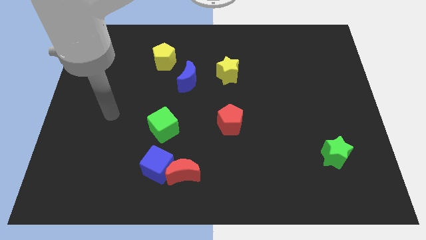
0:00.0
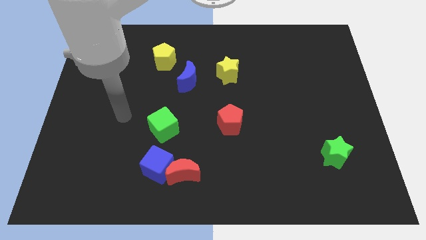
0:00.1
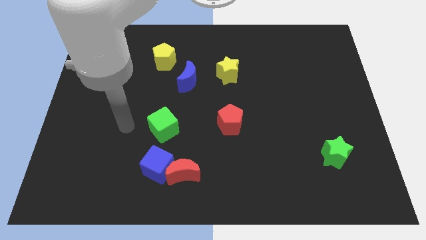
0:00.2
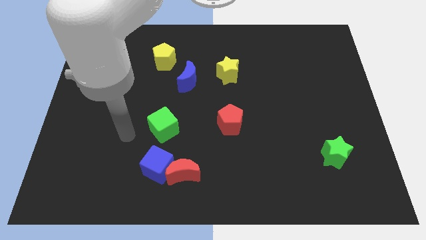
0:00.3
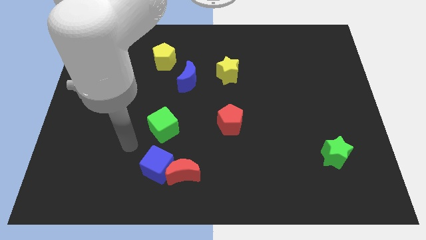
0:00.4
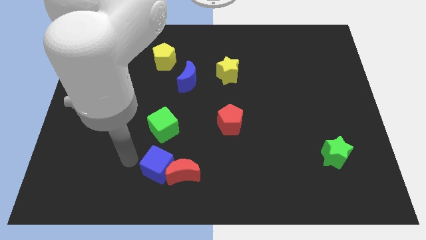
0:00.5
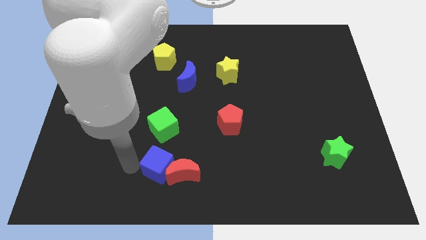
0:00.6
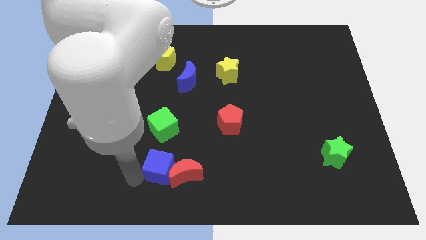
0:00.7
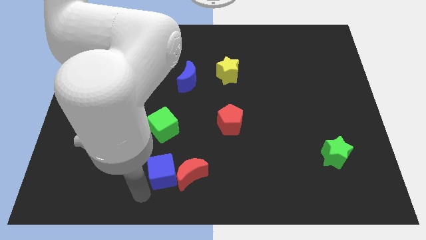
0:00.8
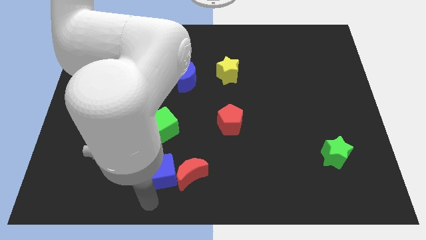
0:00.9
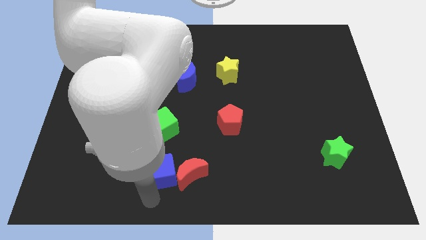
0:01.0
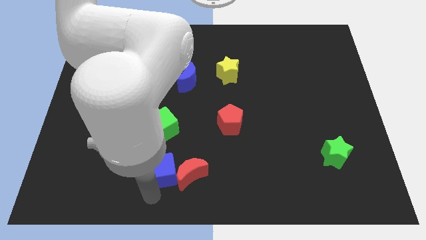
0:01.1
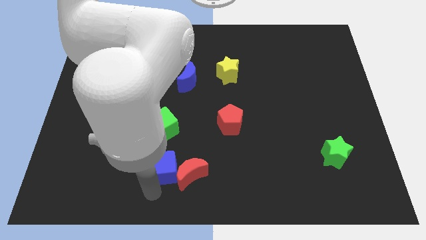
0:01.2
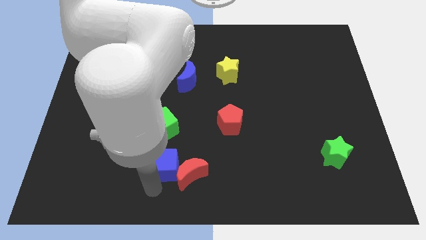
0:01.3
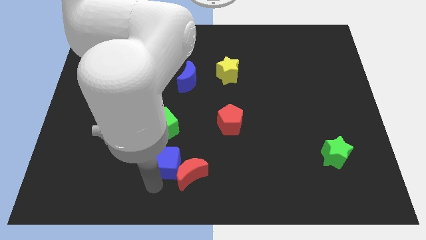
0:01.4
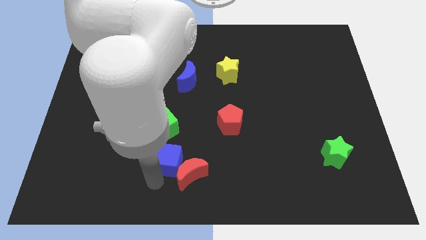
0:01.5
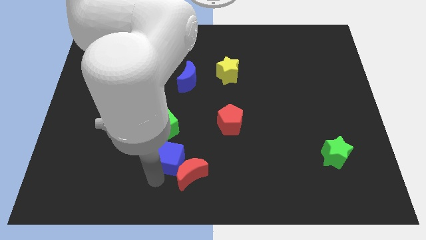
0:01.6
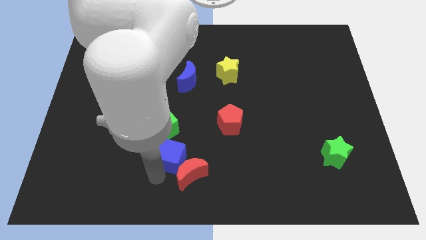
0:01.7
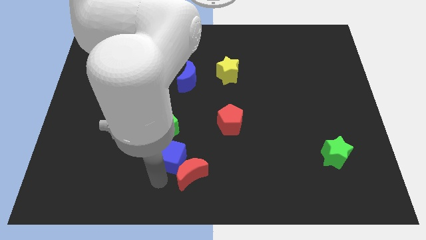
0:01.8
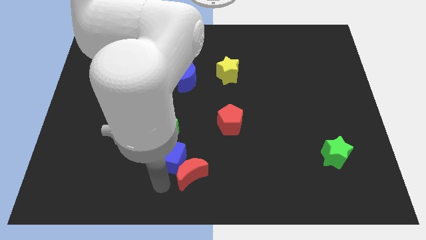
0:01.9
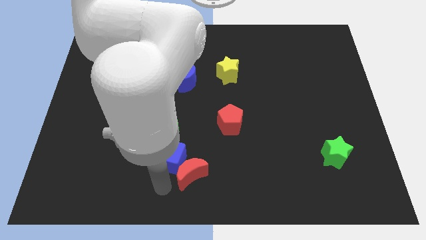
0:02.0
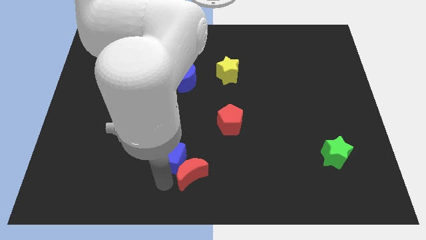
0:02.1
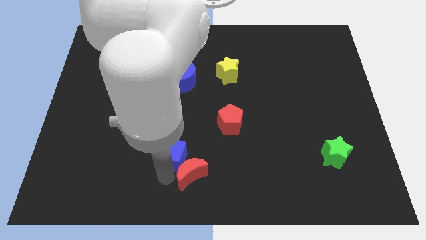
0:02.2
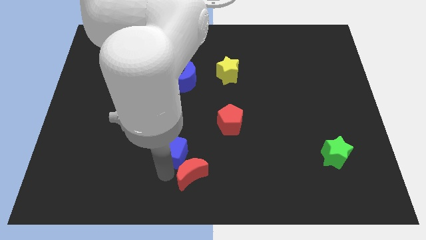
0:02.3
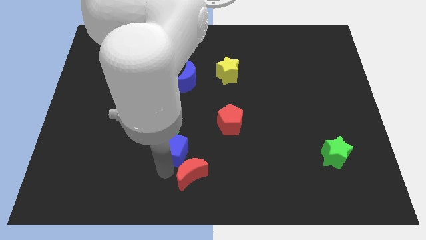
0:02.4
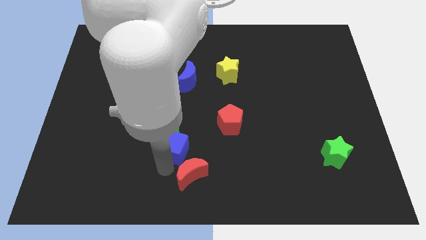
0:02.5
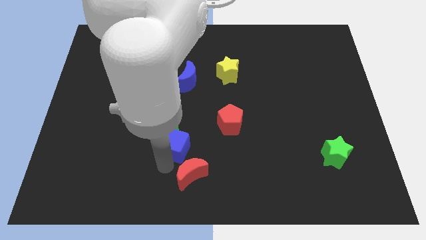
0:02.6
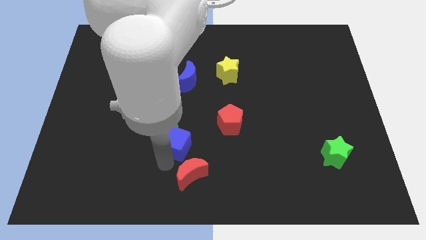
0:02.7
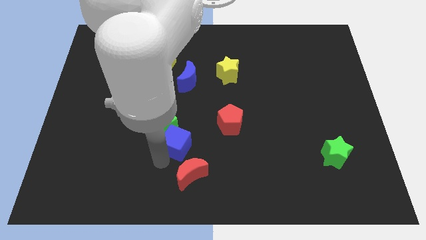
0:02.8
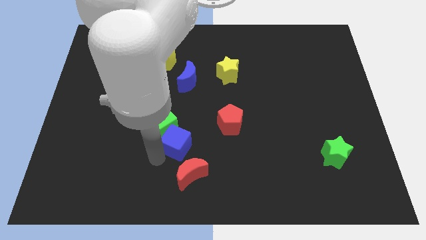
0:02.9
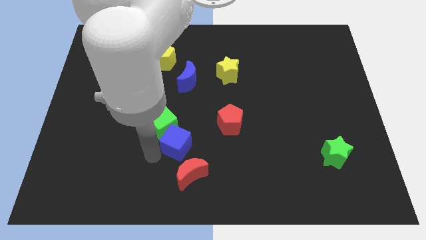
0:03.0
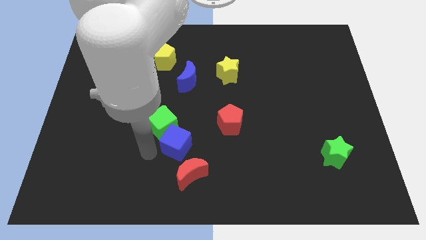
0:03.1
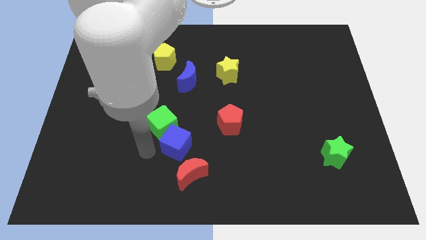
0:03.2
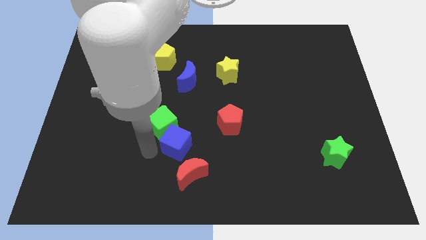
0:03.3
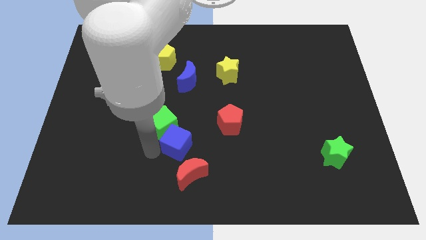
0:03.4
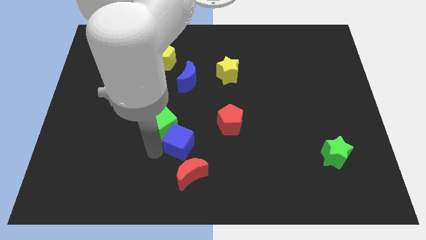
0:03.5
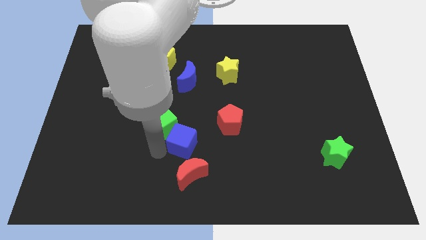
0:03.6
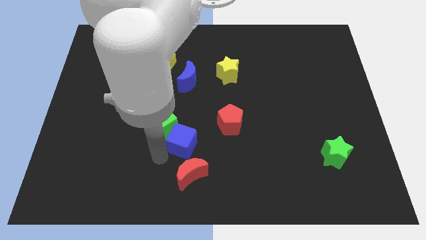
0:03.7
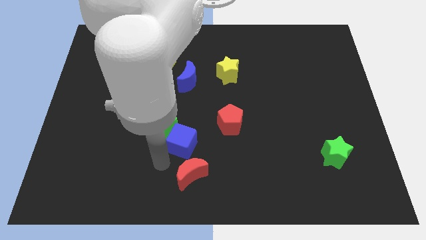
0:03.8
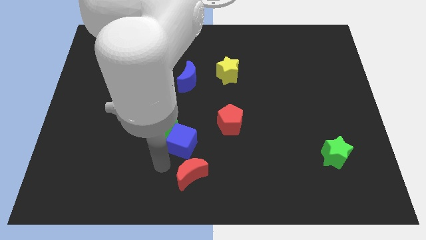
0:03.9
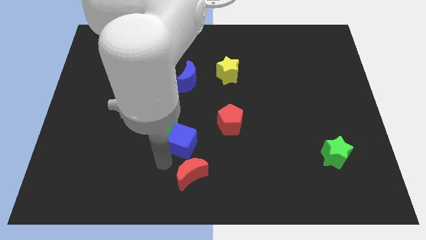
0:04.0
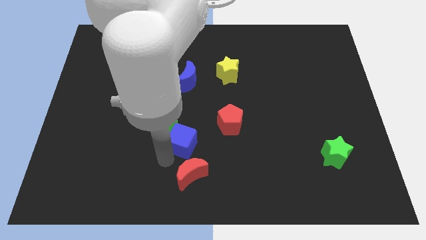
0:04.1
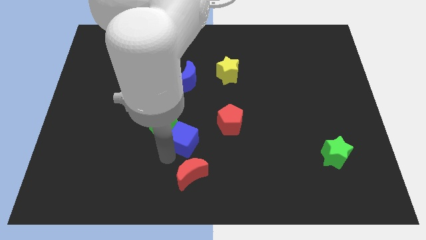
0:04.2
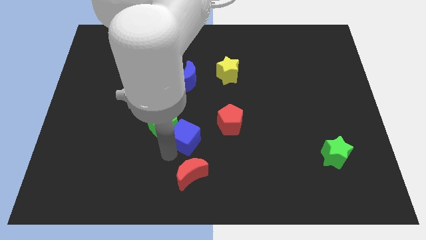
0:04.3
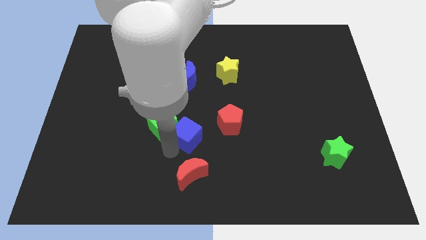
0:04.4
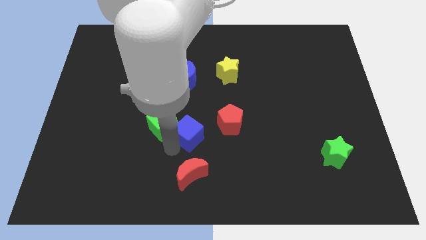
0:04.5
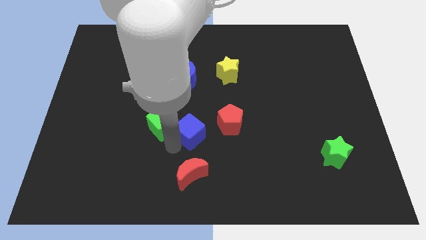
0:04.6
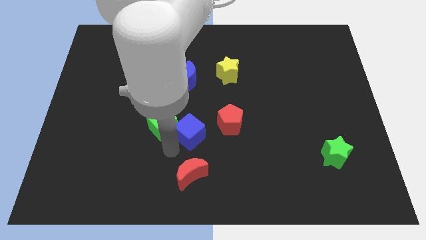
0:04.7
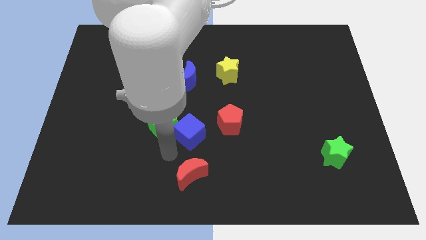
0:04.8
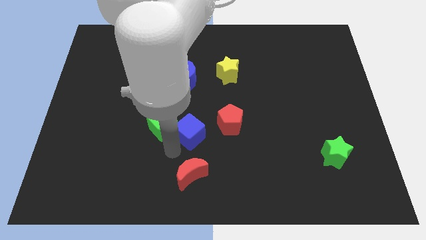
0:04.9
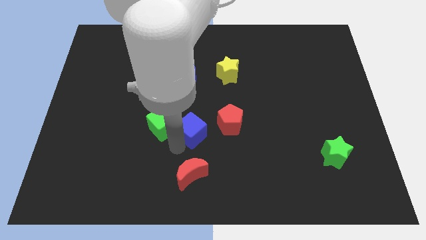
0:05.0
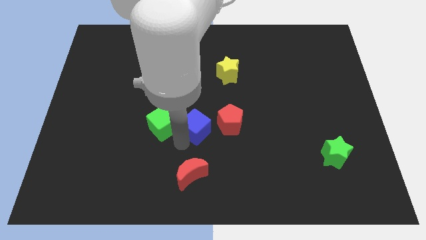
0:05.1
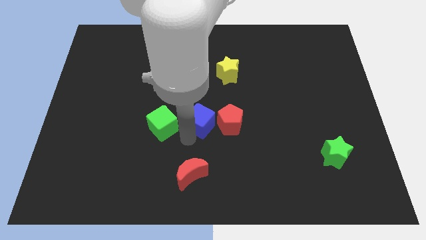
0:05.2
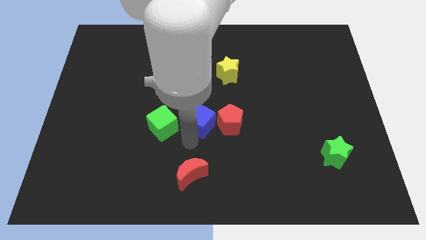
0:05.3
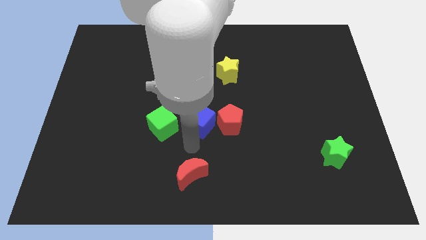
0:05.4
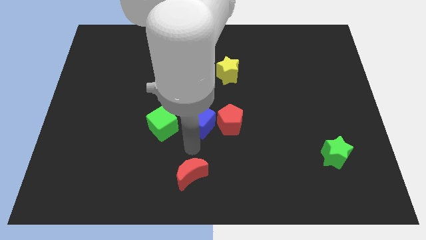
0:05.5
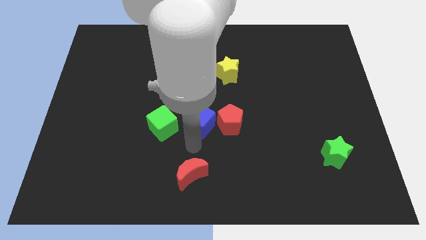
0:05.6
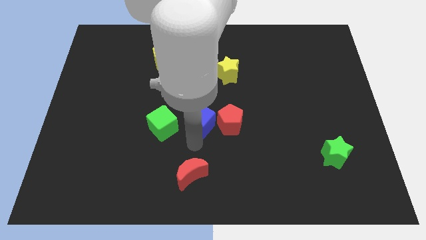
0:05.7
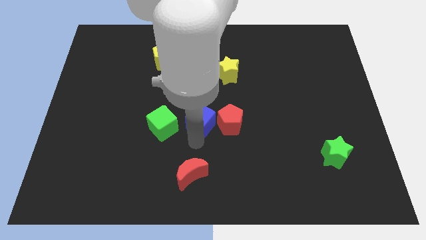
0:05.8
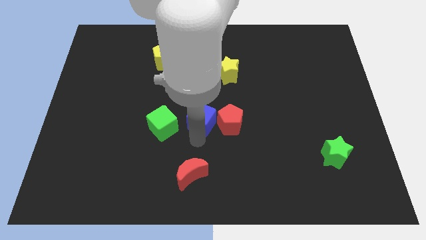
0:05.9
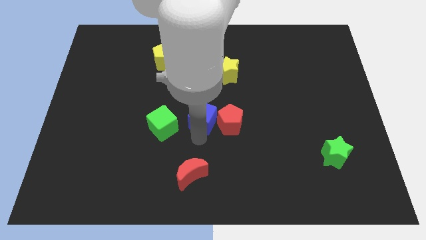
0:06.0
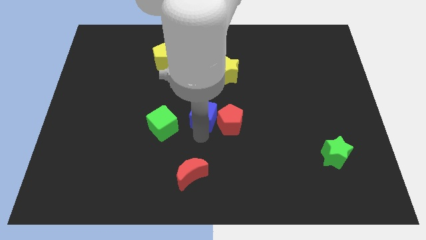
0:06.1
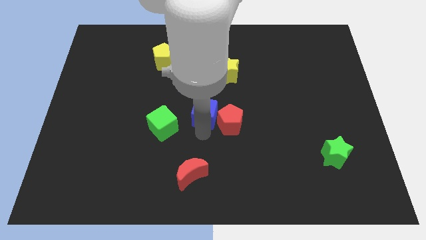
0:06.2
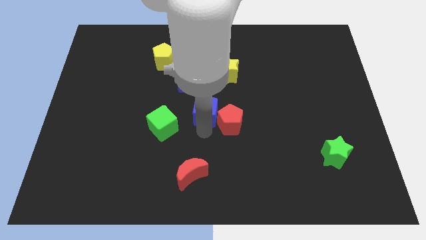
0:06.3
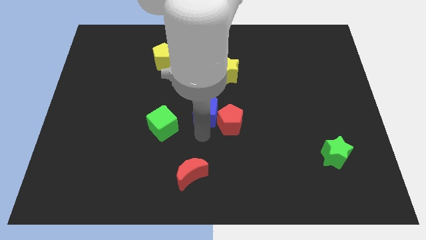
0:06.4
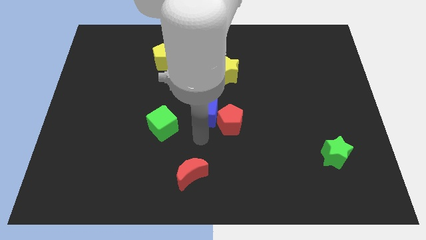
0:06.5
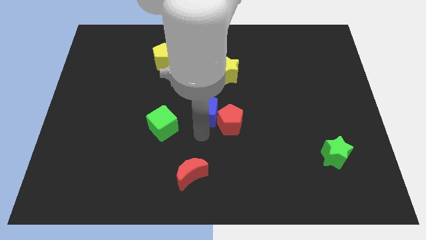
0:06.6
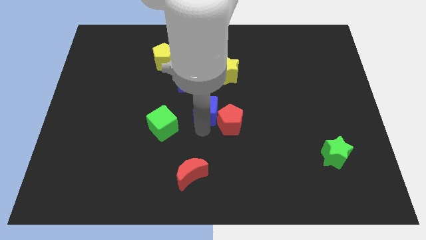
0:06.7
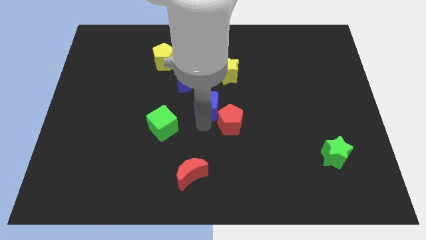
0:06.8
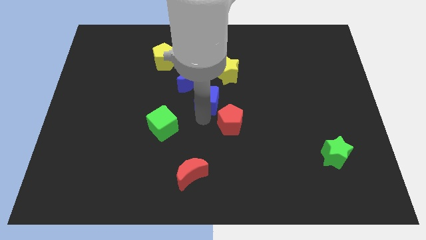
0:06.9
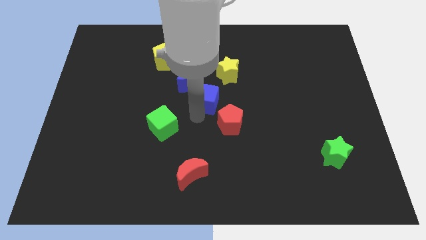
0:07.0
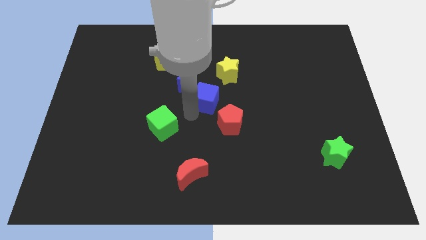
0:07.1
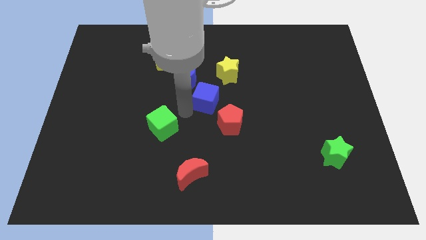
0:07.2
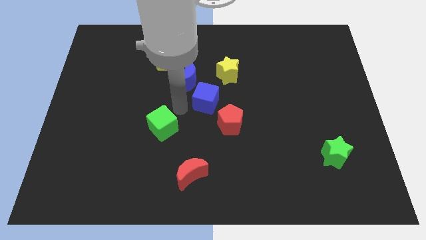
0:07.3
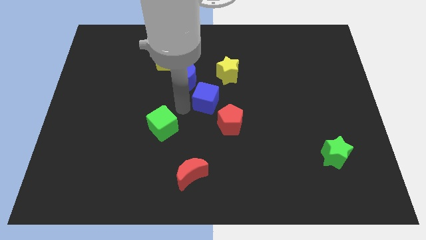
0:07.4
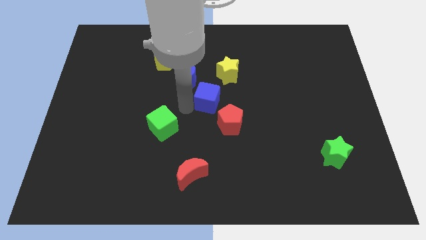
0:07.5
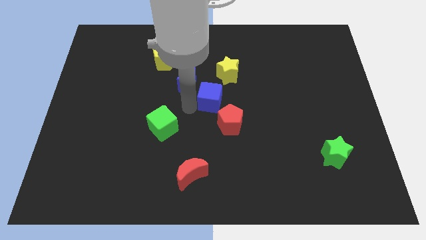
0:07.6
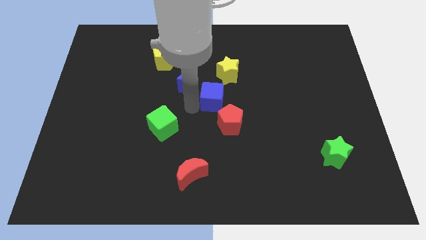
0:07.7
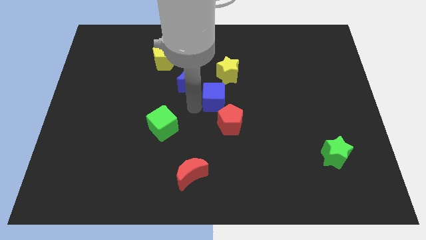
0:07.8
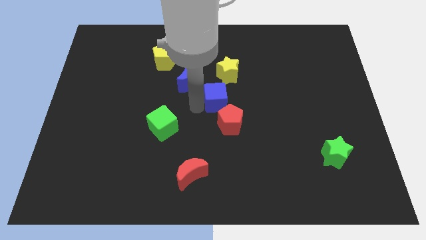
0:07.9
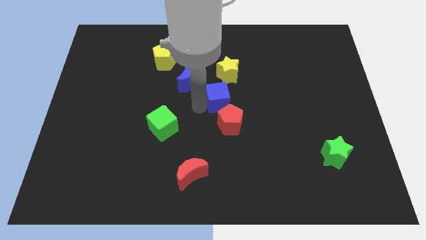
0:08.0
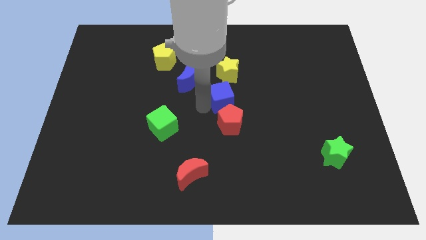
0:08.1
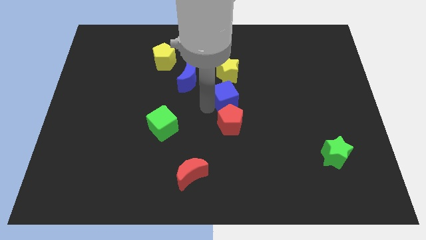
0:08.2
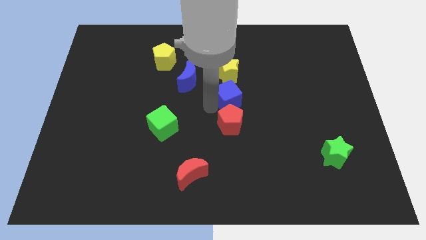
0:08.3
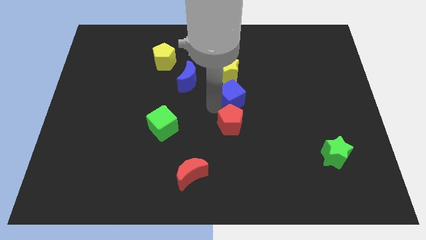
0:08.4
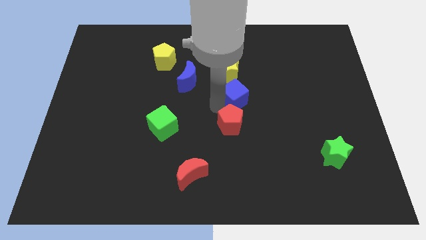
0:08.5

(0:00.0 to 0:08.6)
slide the blue cube diagonally down and to the right of the yellow star
